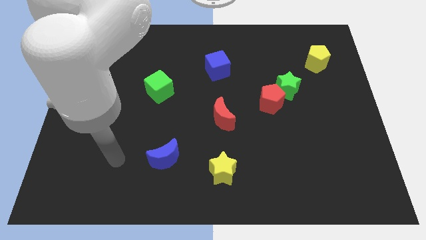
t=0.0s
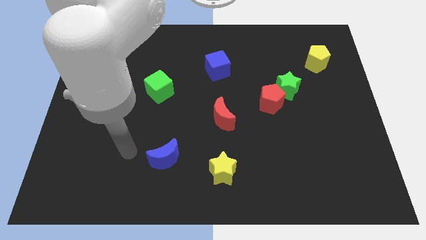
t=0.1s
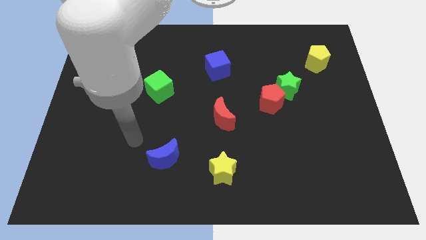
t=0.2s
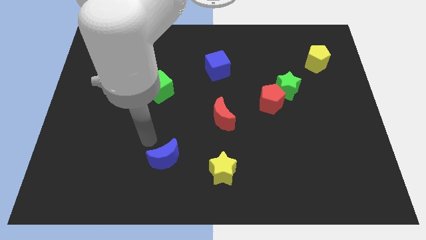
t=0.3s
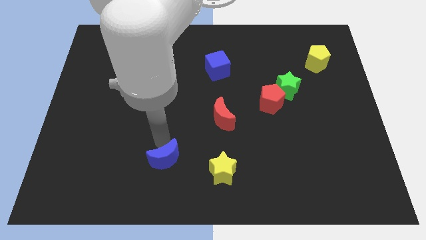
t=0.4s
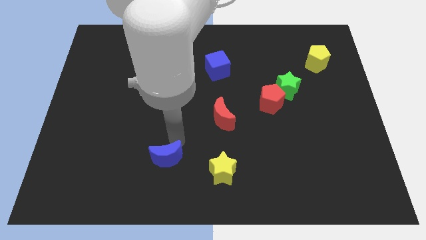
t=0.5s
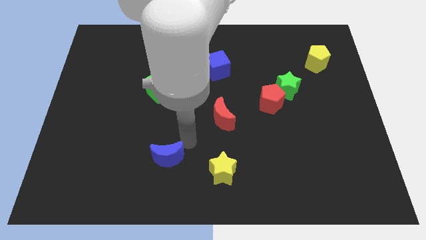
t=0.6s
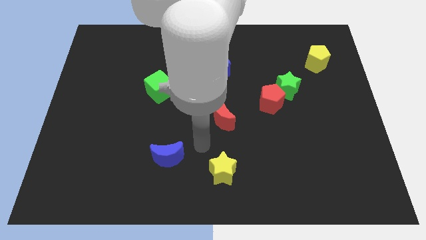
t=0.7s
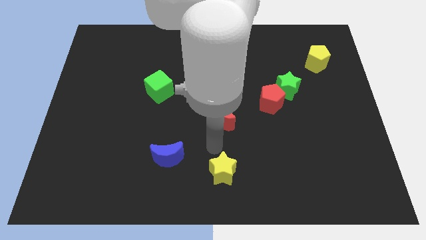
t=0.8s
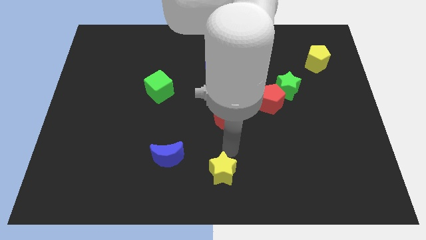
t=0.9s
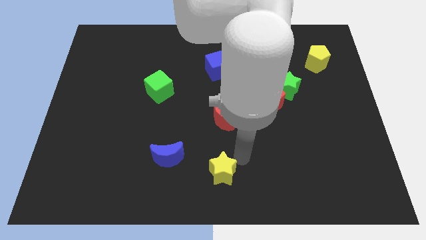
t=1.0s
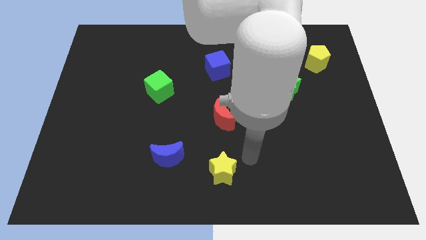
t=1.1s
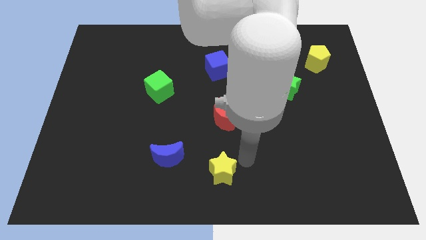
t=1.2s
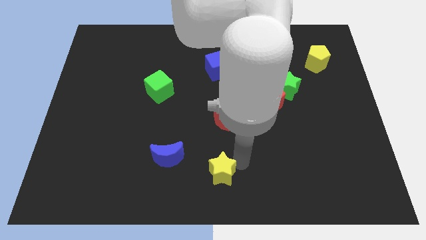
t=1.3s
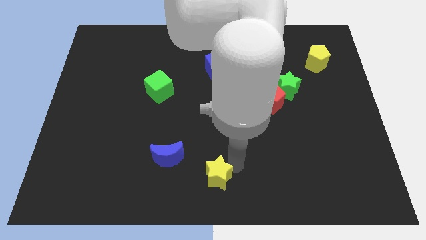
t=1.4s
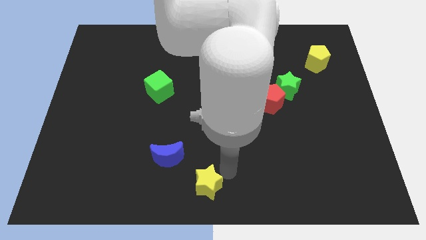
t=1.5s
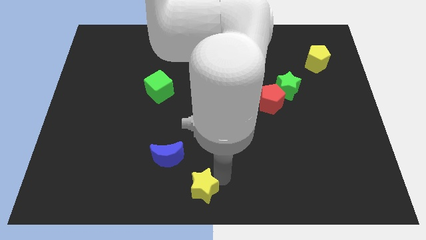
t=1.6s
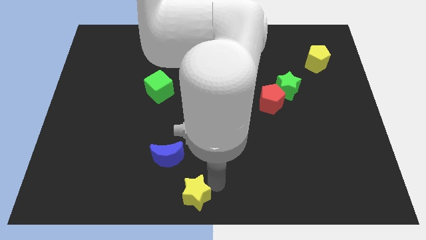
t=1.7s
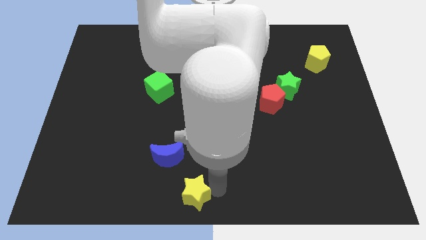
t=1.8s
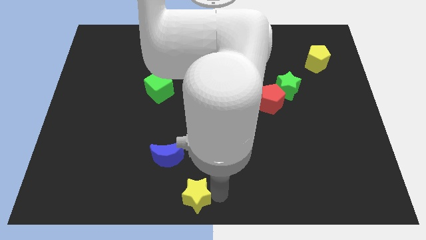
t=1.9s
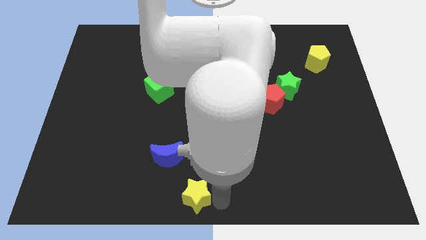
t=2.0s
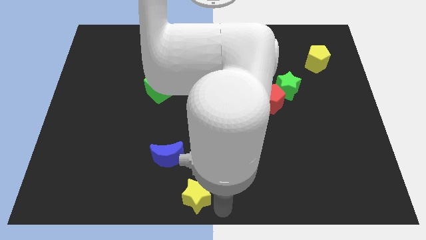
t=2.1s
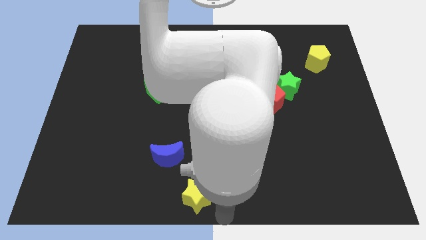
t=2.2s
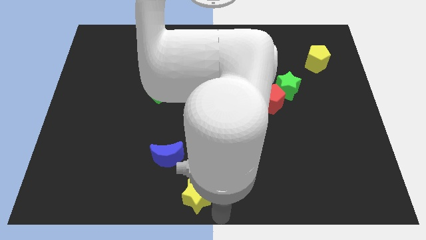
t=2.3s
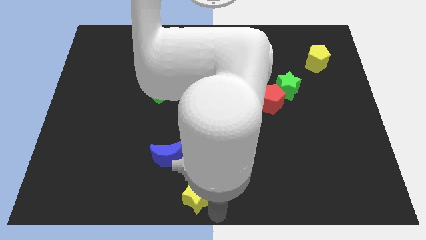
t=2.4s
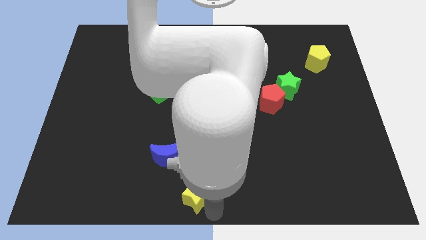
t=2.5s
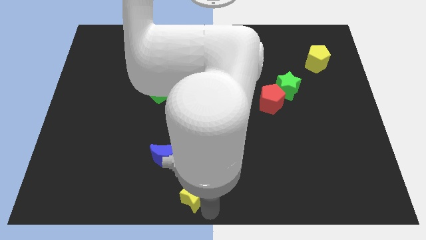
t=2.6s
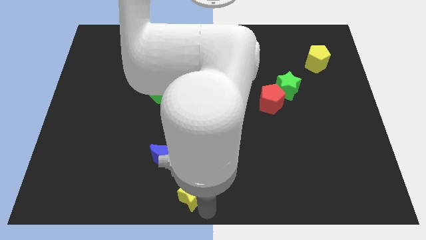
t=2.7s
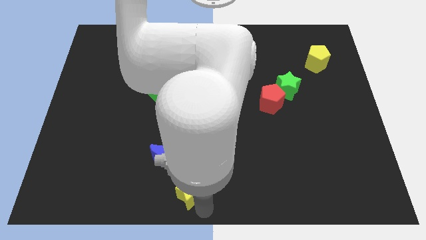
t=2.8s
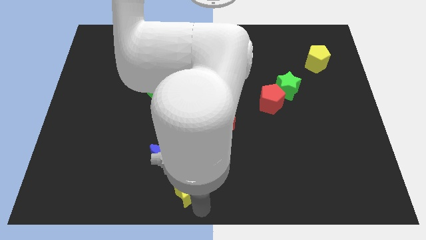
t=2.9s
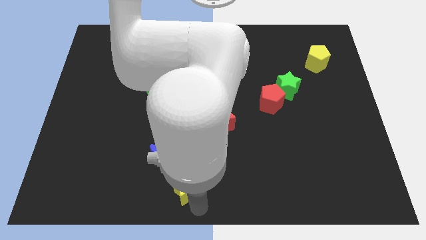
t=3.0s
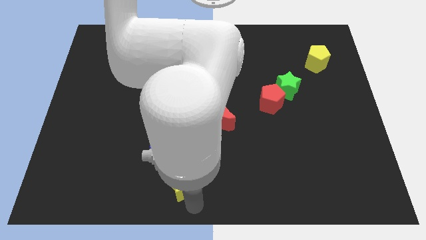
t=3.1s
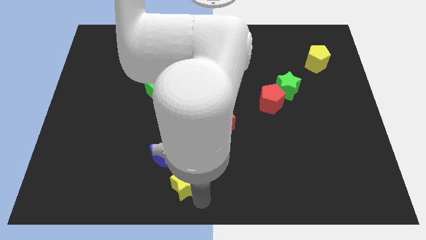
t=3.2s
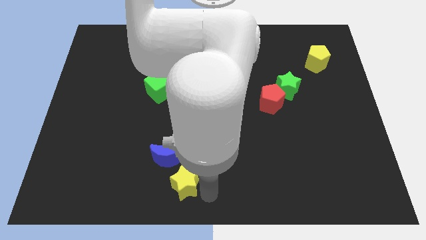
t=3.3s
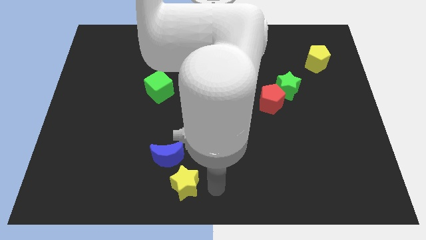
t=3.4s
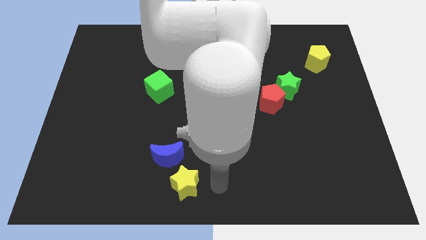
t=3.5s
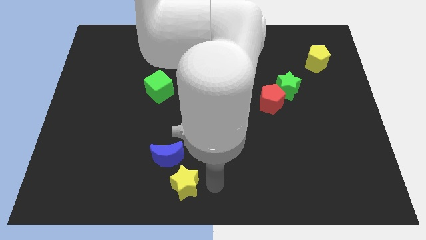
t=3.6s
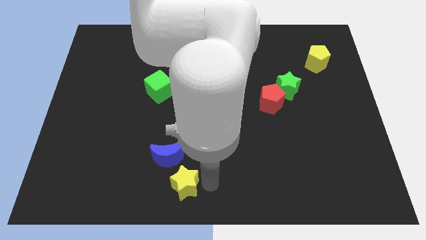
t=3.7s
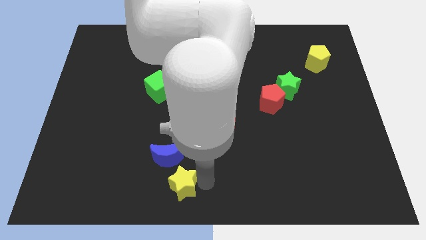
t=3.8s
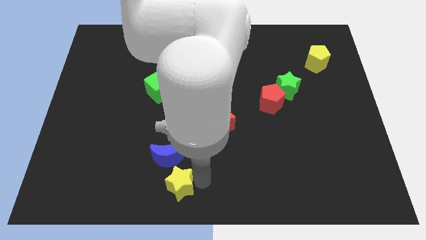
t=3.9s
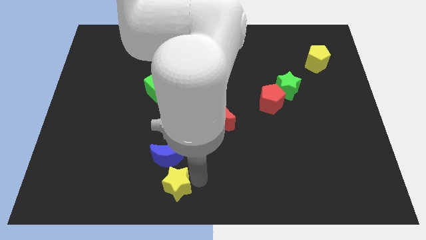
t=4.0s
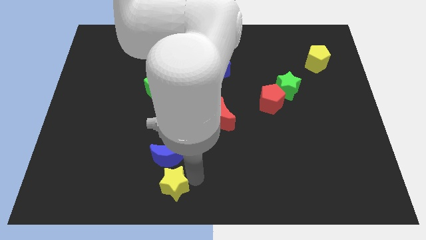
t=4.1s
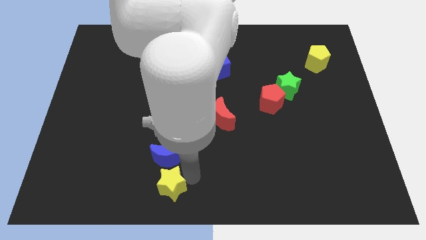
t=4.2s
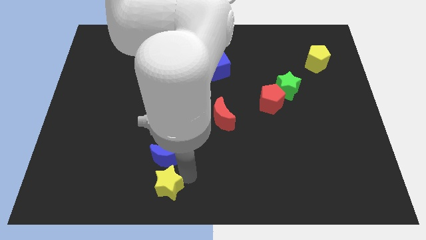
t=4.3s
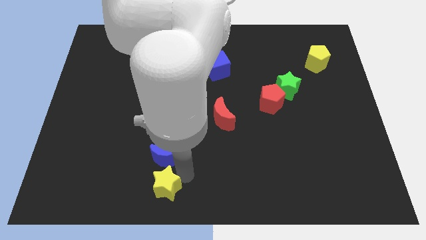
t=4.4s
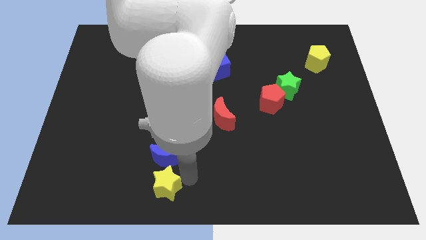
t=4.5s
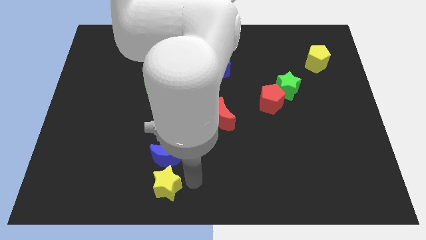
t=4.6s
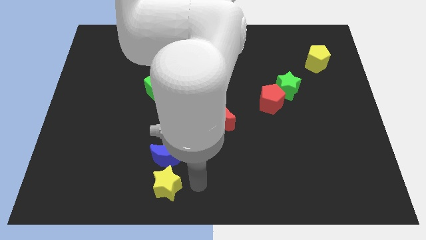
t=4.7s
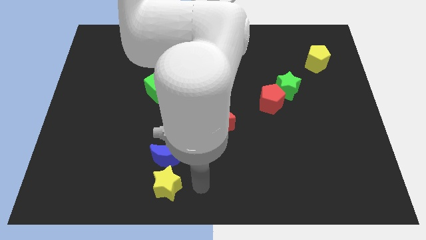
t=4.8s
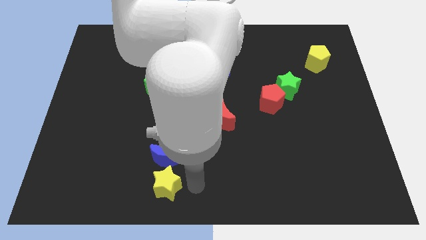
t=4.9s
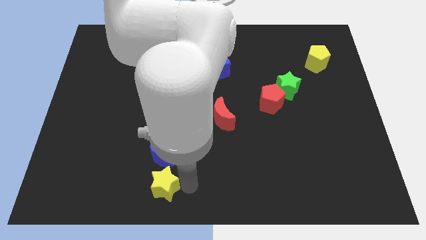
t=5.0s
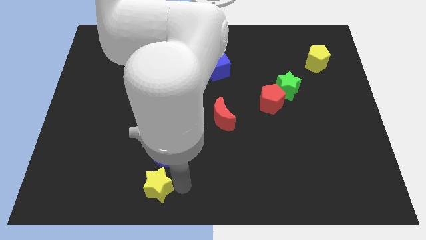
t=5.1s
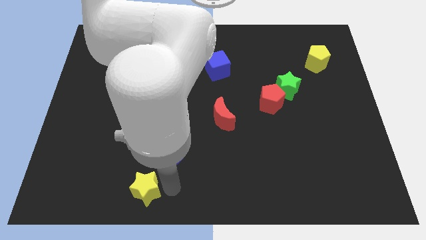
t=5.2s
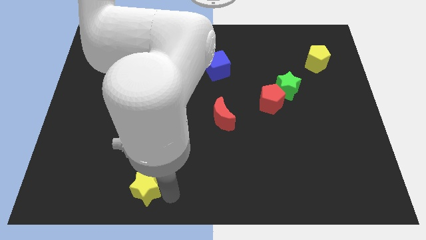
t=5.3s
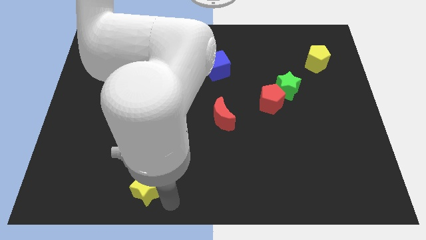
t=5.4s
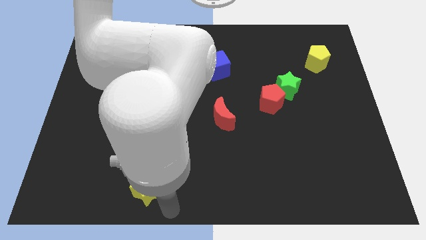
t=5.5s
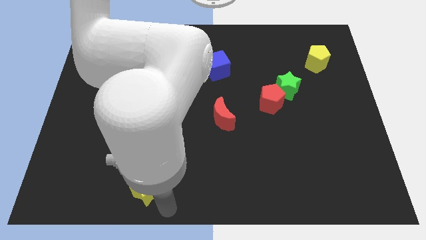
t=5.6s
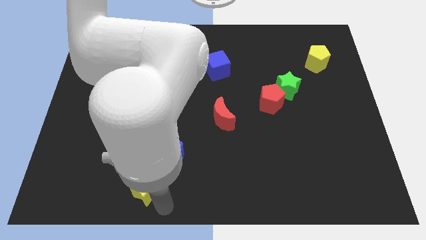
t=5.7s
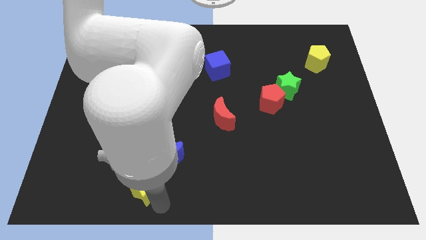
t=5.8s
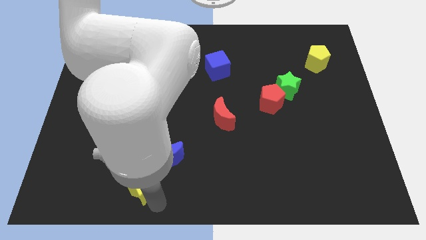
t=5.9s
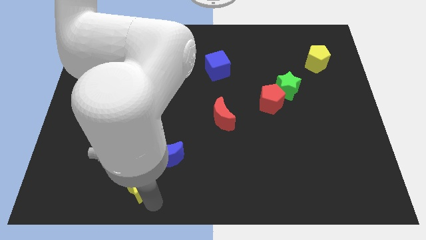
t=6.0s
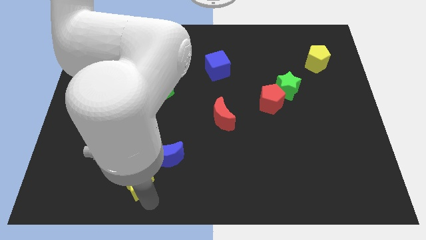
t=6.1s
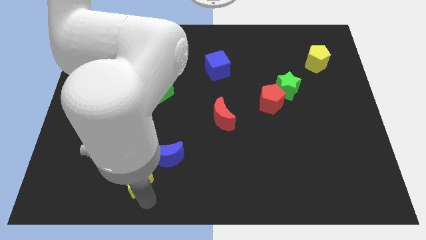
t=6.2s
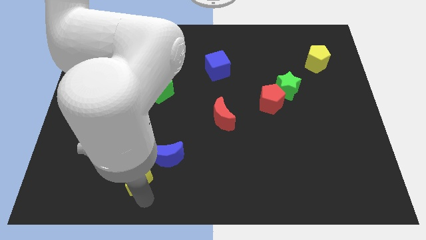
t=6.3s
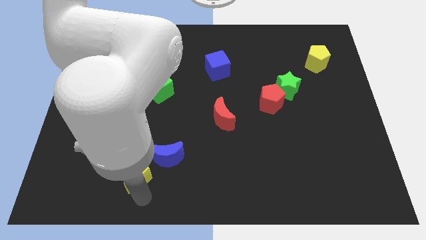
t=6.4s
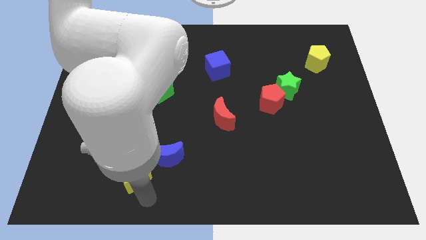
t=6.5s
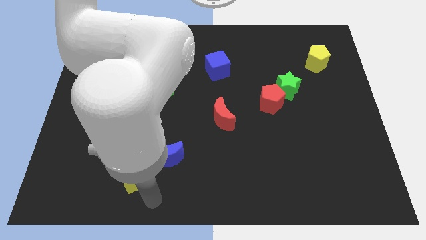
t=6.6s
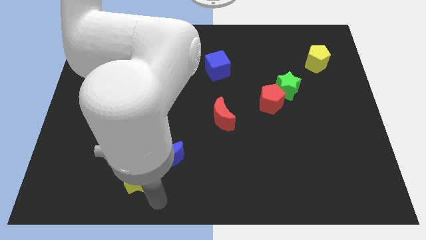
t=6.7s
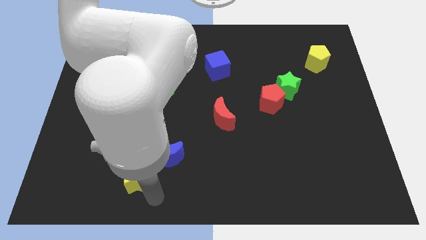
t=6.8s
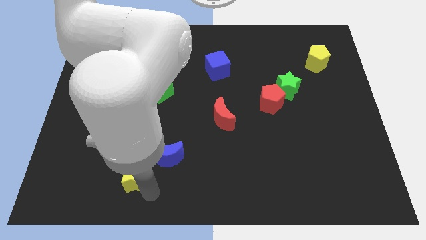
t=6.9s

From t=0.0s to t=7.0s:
put the yellow star left of the blue moon

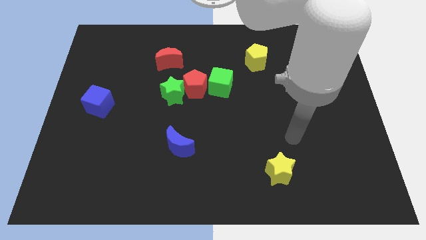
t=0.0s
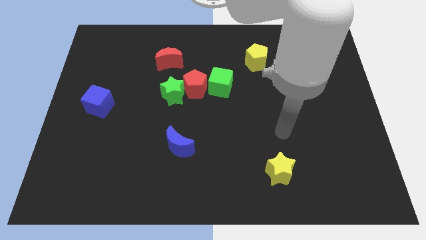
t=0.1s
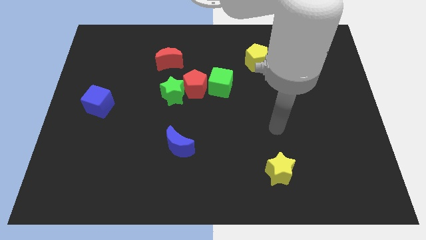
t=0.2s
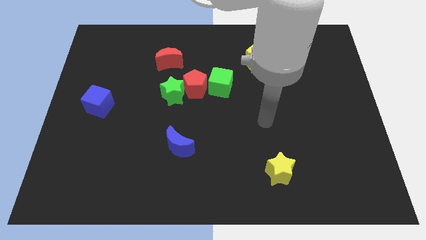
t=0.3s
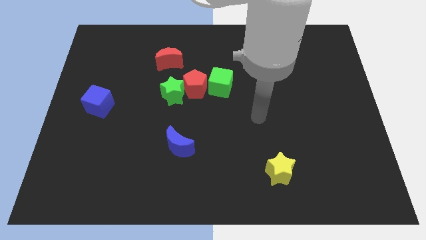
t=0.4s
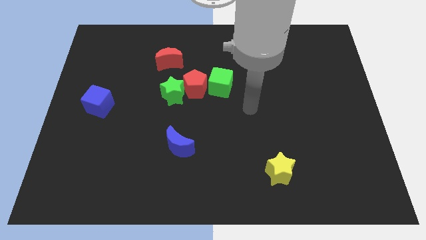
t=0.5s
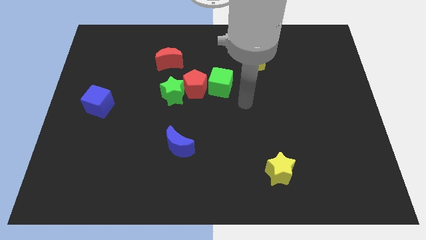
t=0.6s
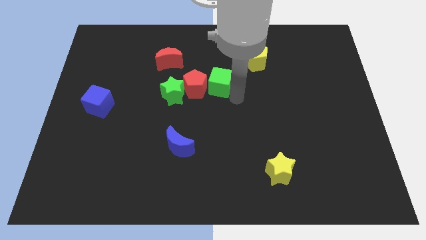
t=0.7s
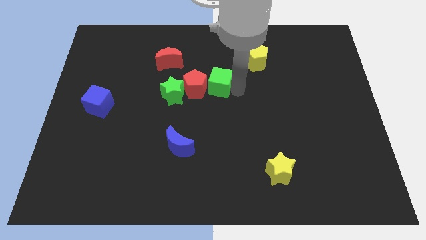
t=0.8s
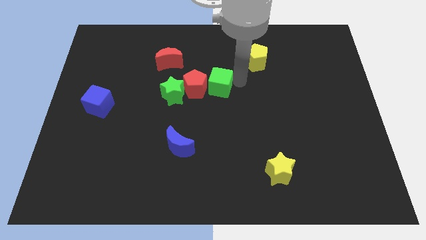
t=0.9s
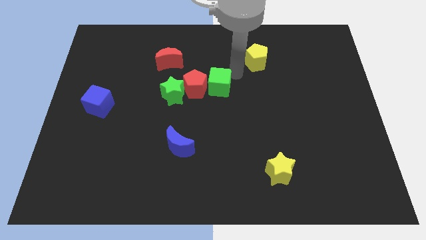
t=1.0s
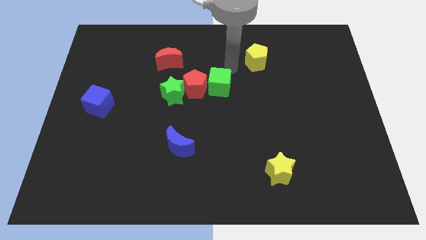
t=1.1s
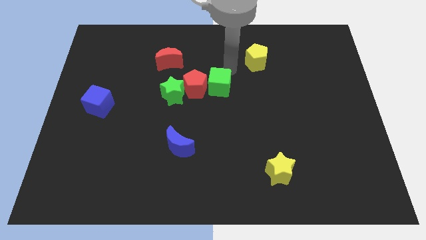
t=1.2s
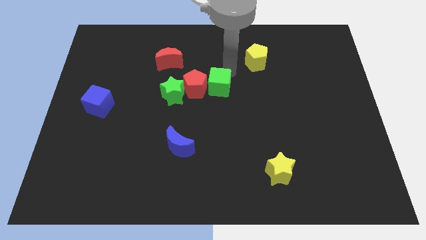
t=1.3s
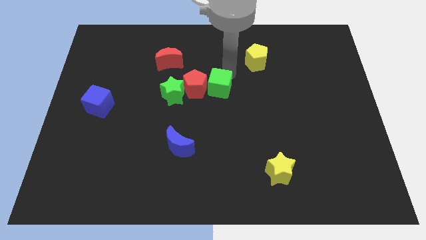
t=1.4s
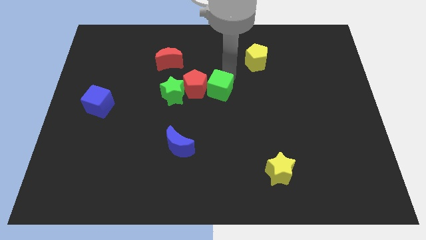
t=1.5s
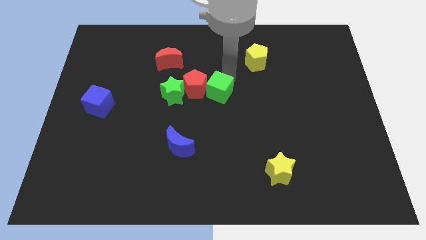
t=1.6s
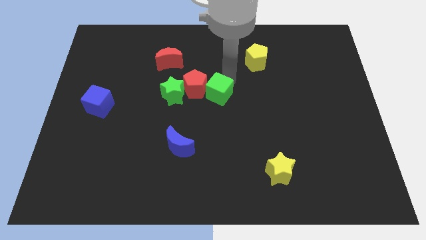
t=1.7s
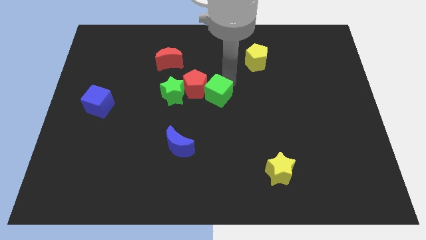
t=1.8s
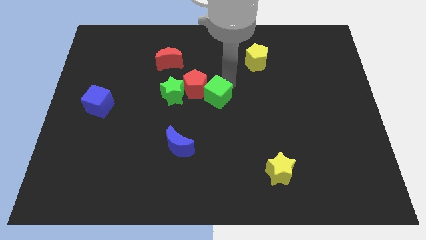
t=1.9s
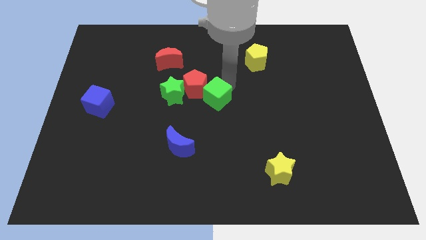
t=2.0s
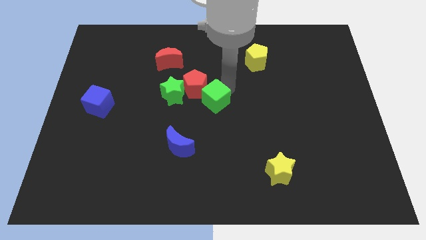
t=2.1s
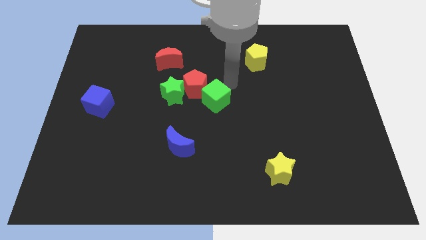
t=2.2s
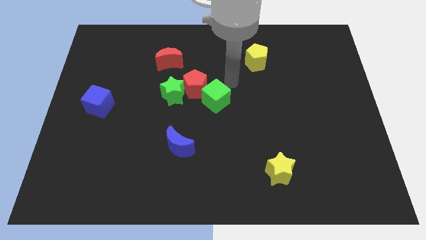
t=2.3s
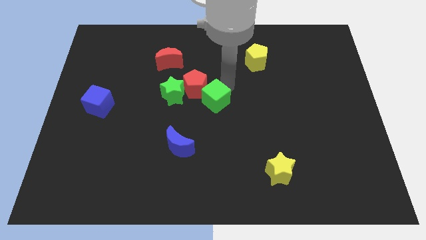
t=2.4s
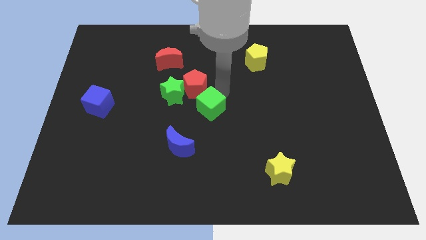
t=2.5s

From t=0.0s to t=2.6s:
push the green cube to the bottom side of the red pentagon
